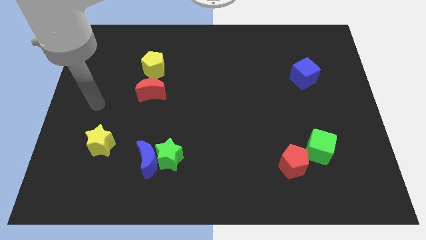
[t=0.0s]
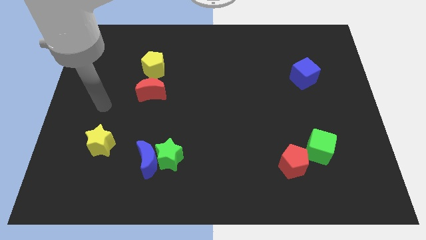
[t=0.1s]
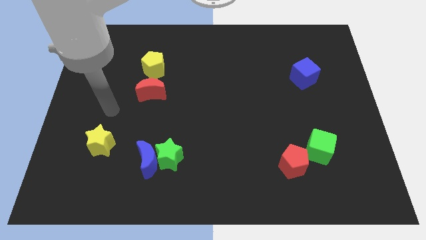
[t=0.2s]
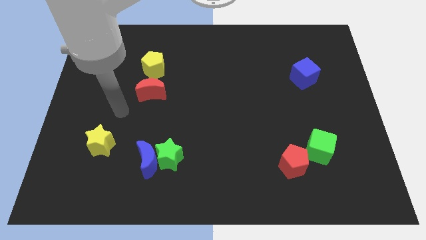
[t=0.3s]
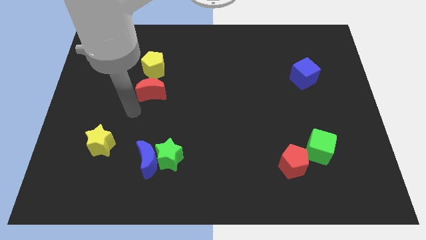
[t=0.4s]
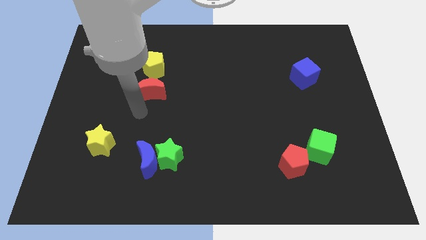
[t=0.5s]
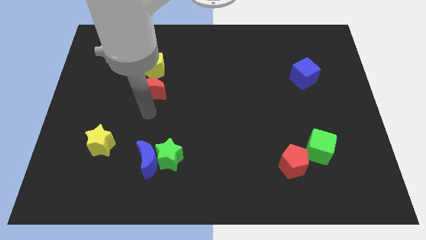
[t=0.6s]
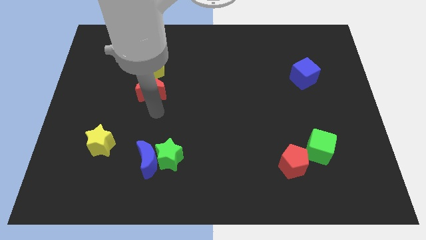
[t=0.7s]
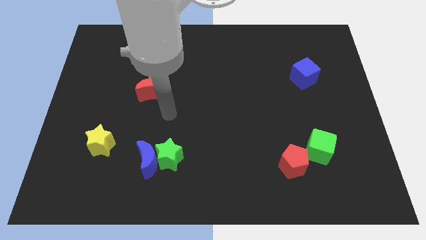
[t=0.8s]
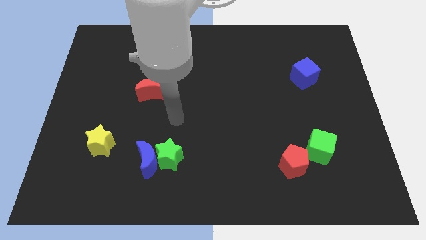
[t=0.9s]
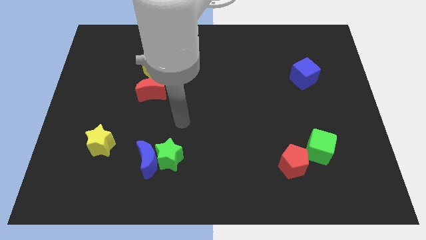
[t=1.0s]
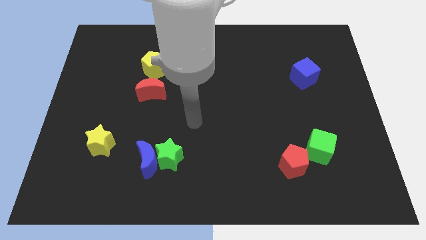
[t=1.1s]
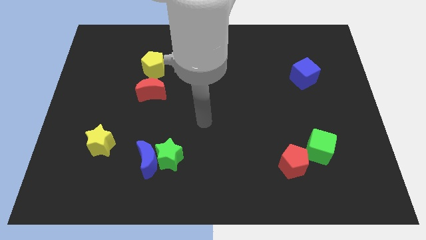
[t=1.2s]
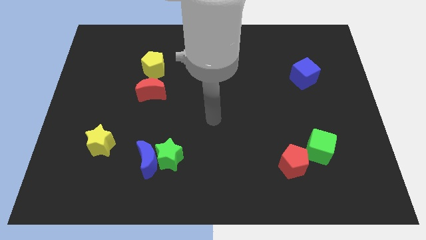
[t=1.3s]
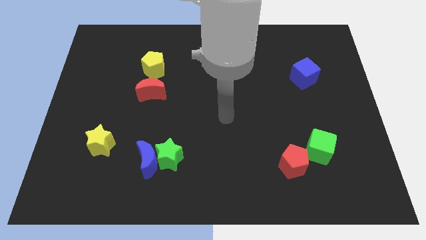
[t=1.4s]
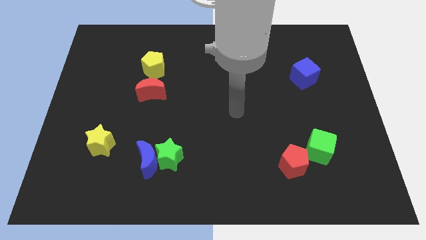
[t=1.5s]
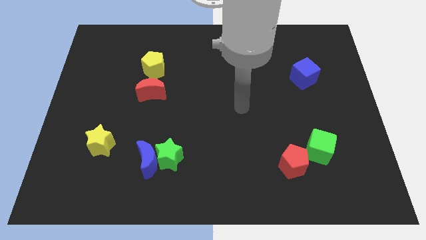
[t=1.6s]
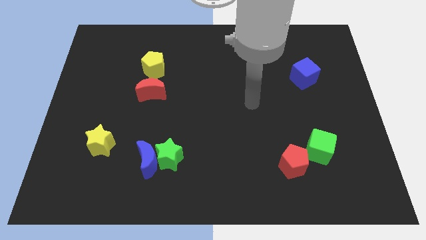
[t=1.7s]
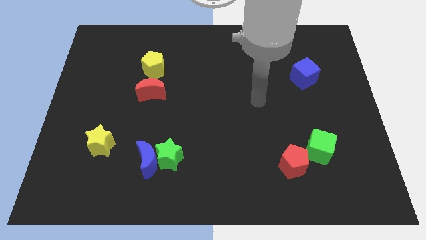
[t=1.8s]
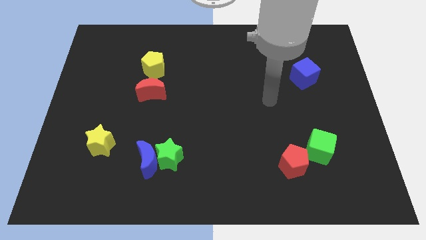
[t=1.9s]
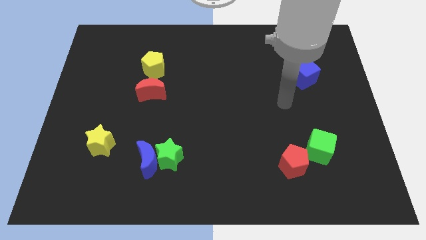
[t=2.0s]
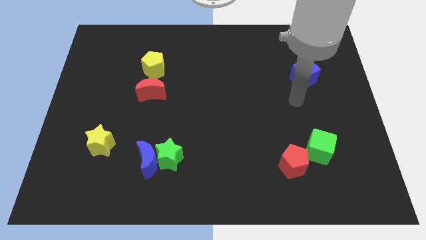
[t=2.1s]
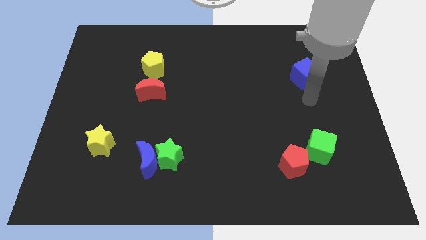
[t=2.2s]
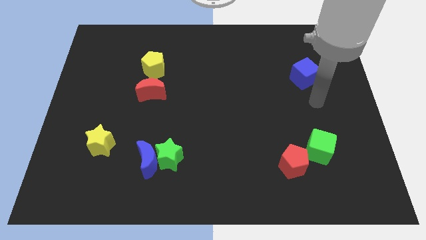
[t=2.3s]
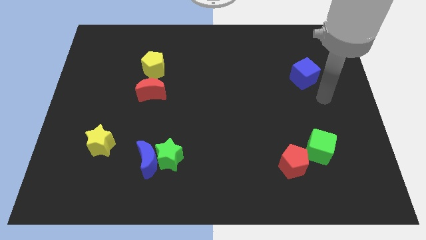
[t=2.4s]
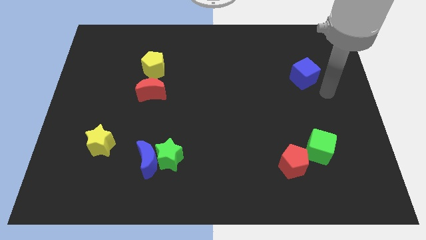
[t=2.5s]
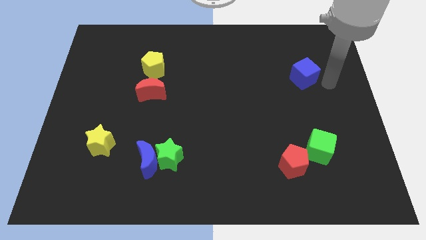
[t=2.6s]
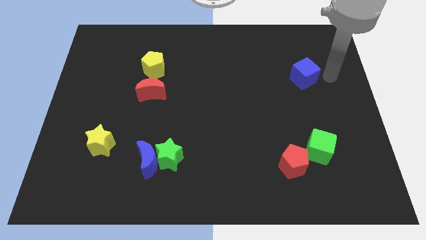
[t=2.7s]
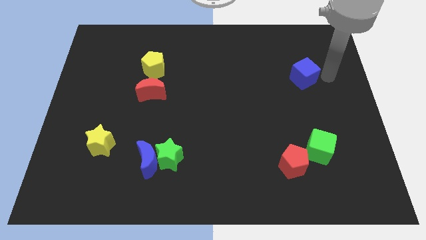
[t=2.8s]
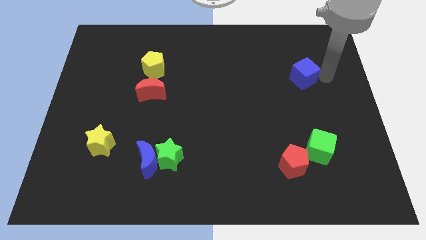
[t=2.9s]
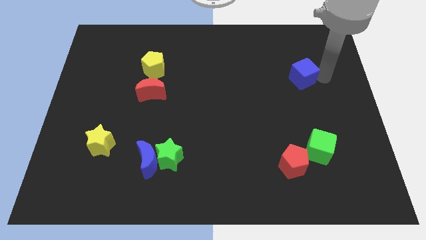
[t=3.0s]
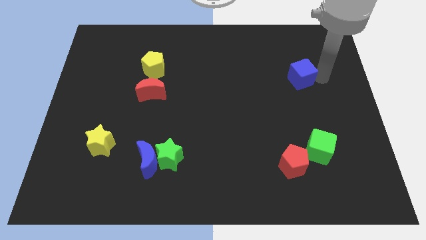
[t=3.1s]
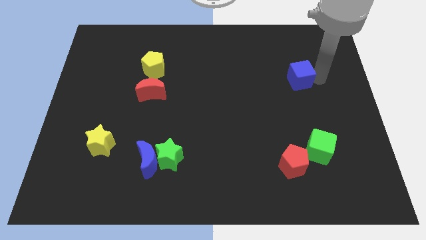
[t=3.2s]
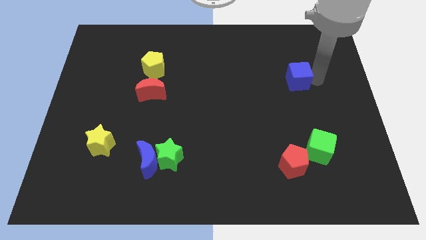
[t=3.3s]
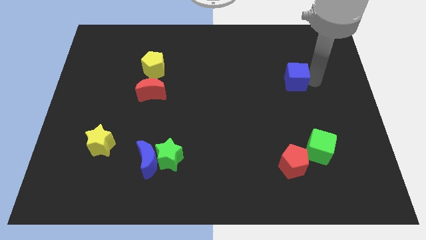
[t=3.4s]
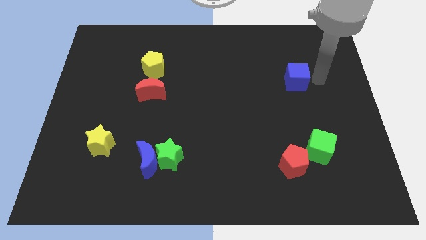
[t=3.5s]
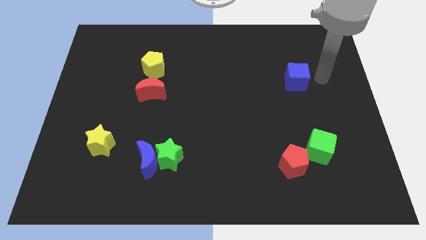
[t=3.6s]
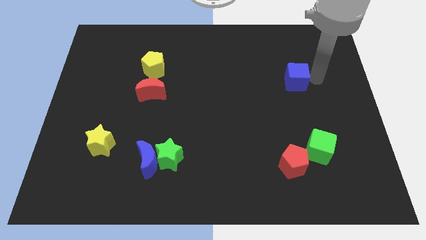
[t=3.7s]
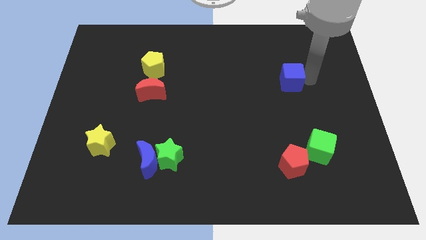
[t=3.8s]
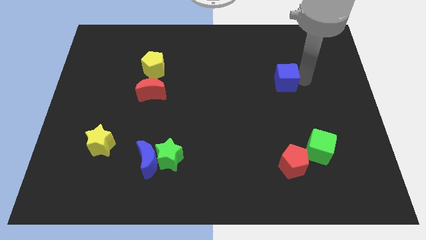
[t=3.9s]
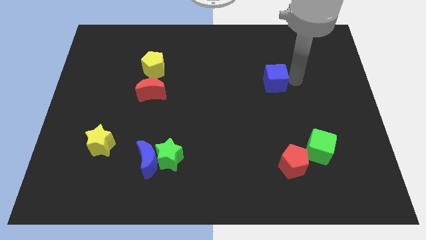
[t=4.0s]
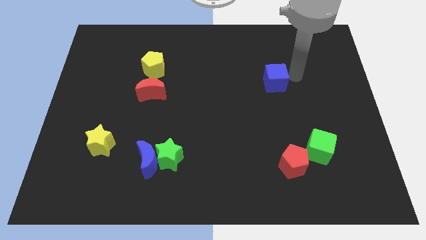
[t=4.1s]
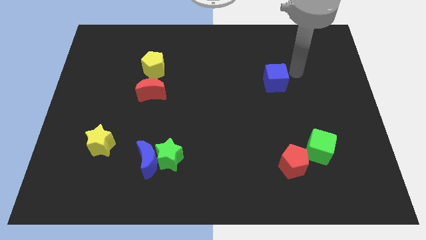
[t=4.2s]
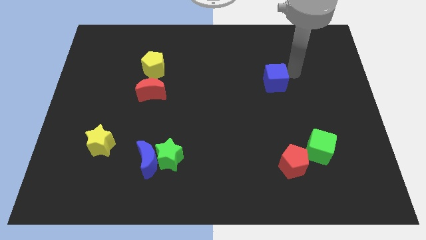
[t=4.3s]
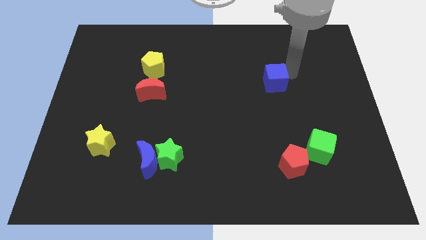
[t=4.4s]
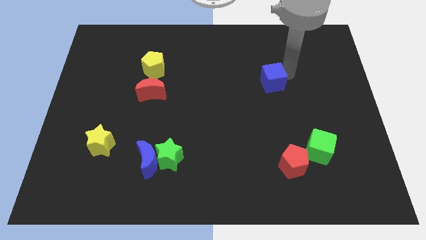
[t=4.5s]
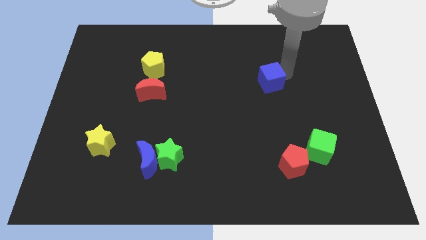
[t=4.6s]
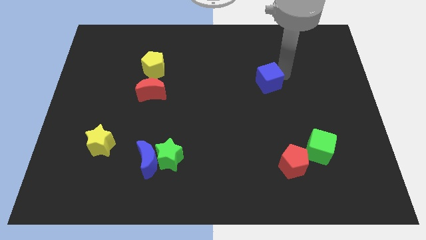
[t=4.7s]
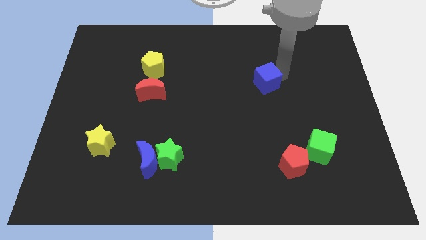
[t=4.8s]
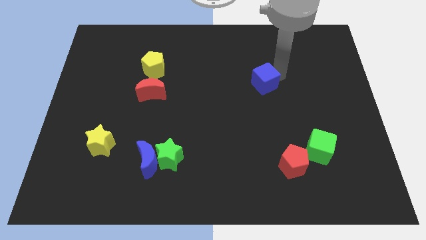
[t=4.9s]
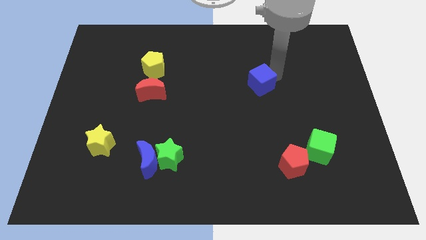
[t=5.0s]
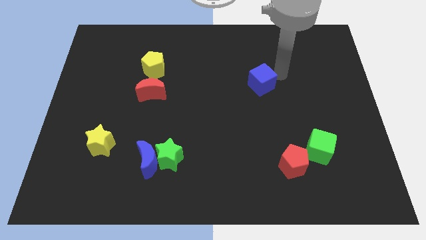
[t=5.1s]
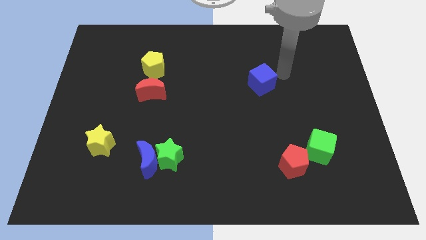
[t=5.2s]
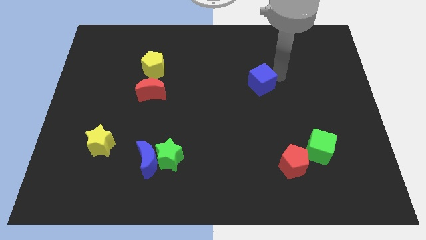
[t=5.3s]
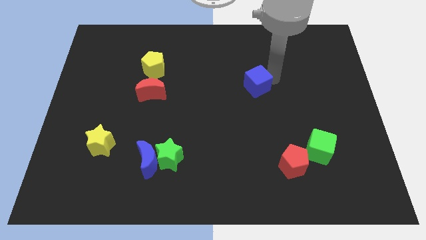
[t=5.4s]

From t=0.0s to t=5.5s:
push the blue cube to the center of the board

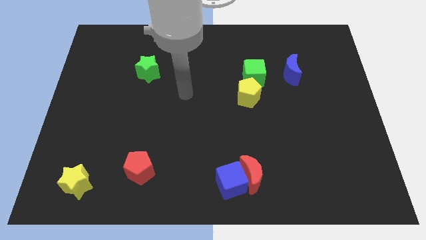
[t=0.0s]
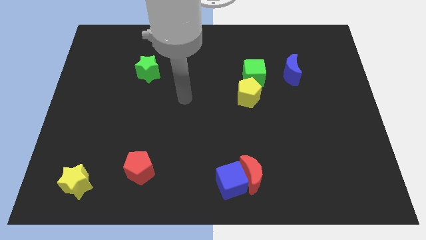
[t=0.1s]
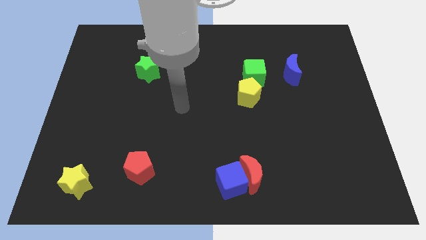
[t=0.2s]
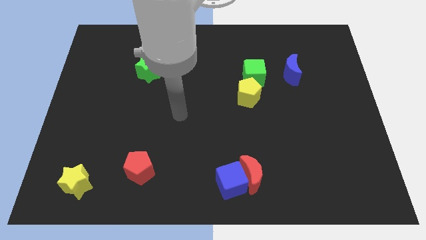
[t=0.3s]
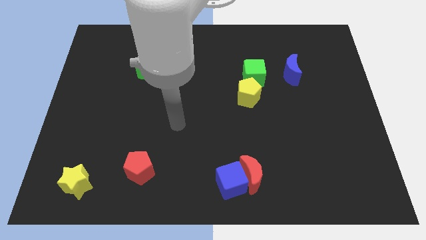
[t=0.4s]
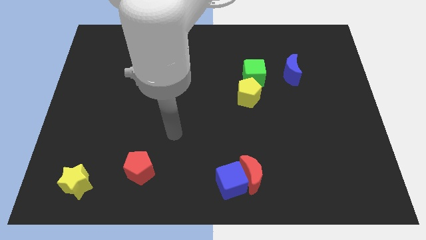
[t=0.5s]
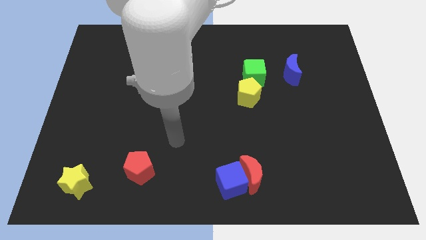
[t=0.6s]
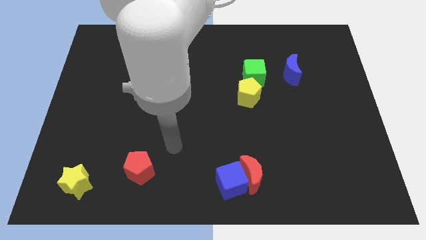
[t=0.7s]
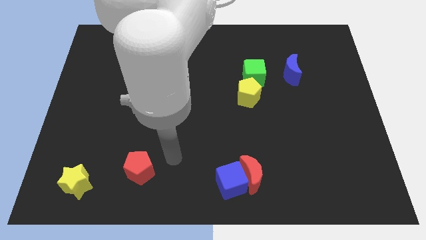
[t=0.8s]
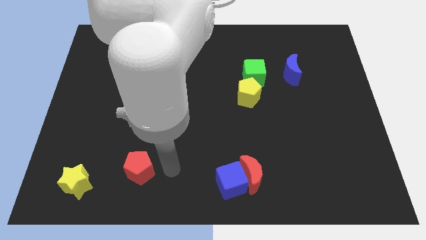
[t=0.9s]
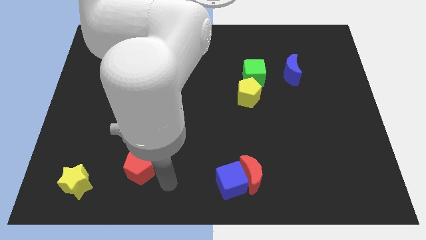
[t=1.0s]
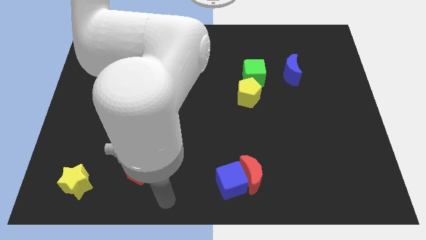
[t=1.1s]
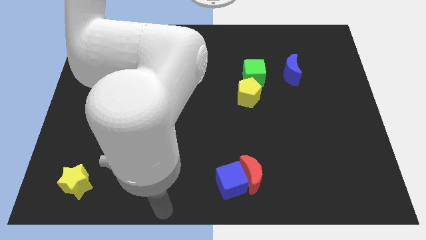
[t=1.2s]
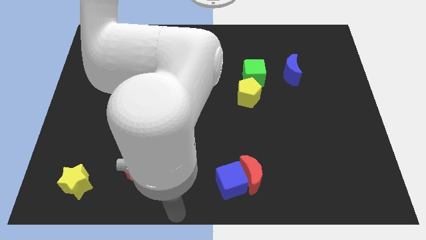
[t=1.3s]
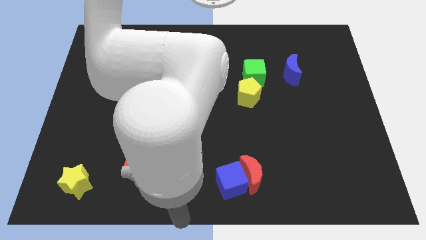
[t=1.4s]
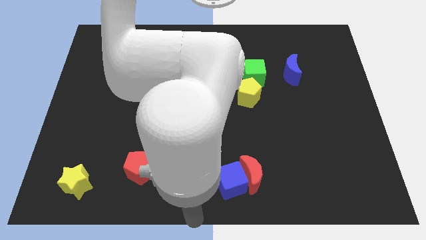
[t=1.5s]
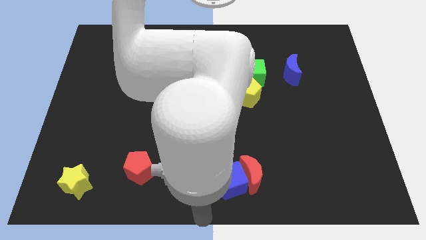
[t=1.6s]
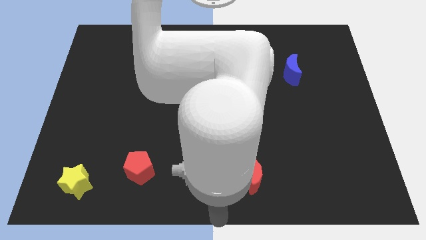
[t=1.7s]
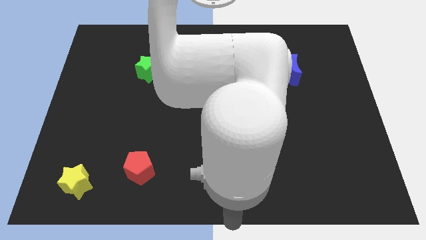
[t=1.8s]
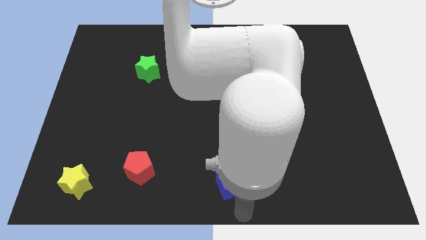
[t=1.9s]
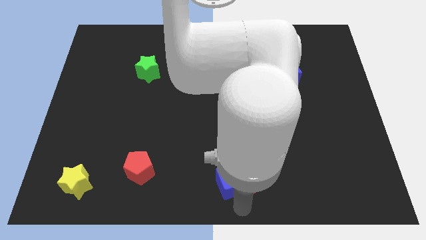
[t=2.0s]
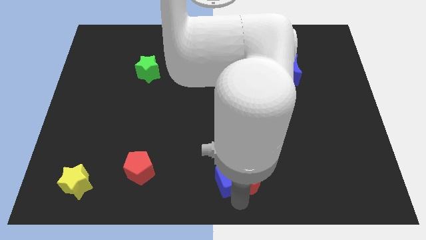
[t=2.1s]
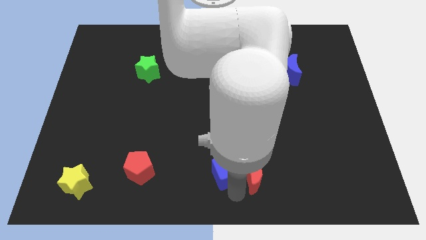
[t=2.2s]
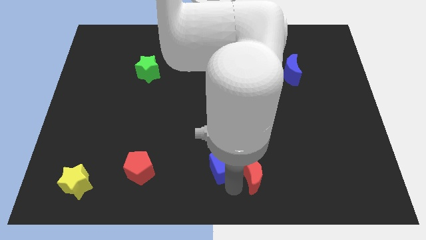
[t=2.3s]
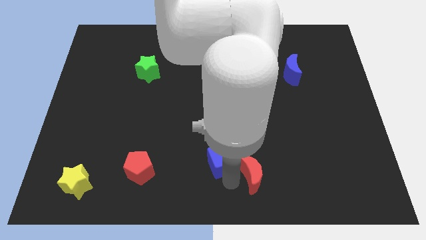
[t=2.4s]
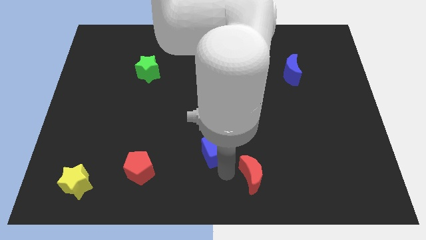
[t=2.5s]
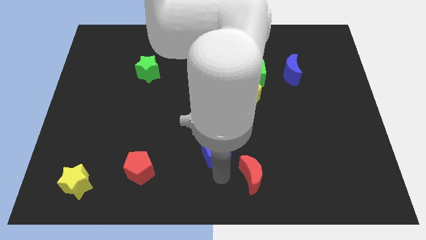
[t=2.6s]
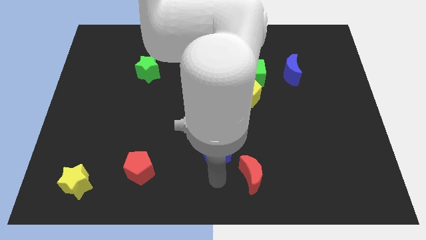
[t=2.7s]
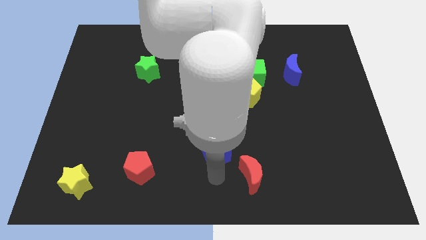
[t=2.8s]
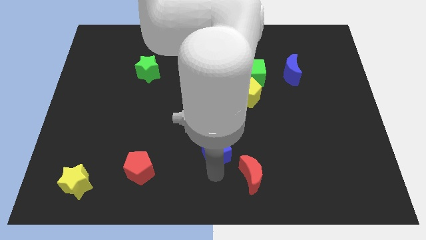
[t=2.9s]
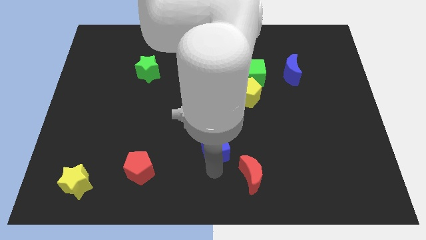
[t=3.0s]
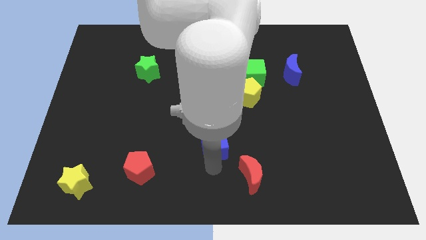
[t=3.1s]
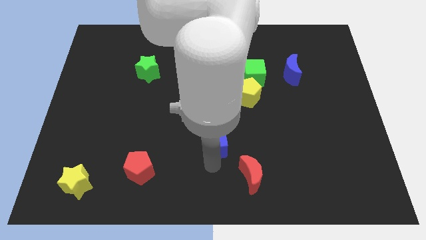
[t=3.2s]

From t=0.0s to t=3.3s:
put the blue cube to the center
